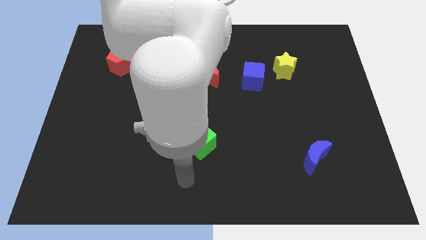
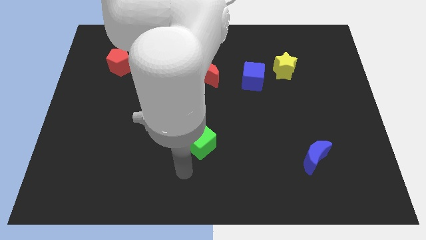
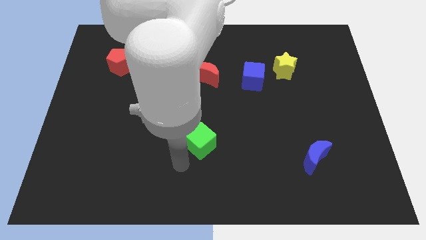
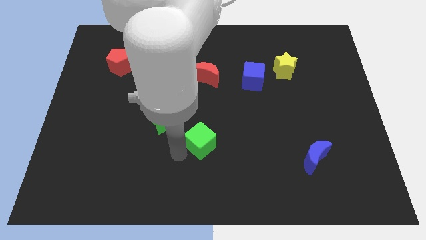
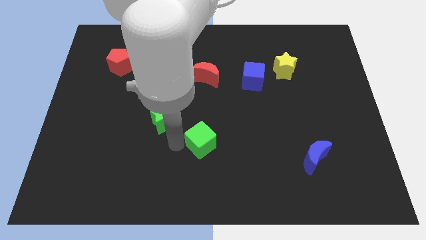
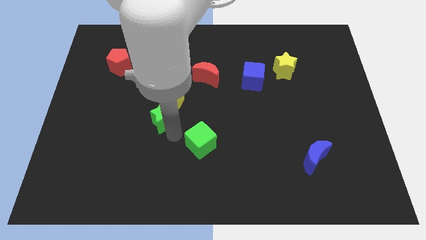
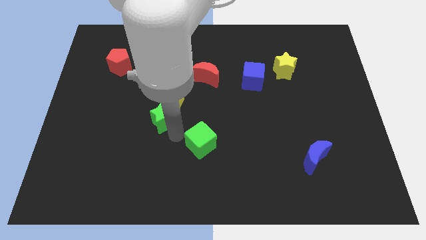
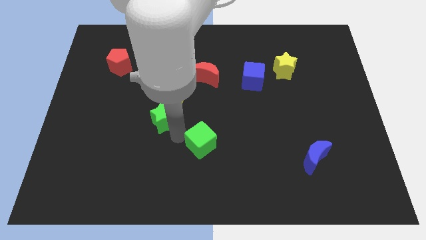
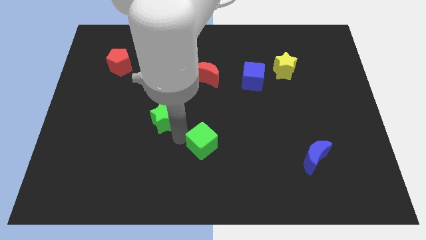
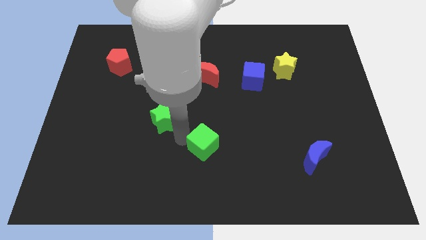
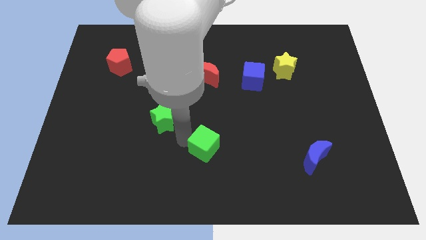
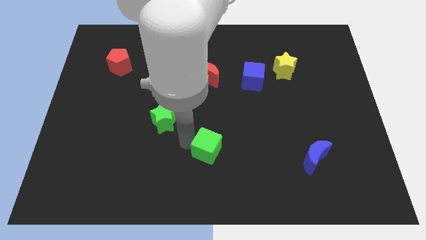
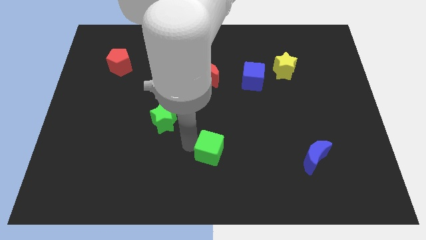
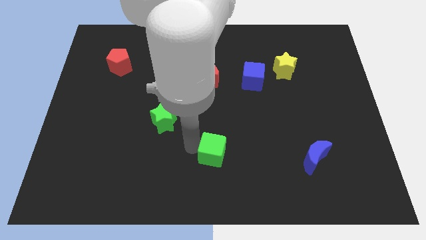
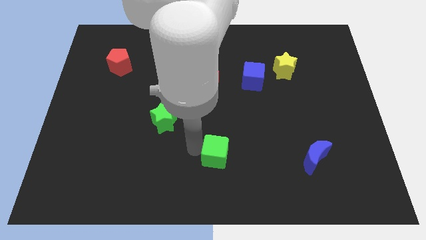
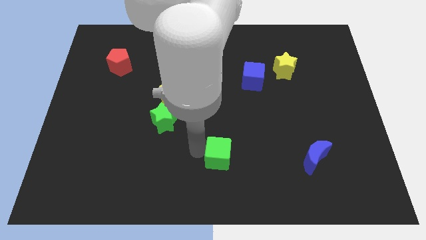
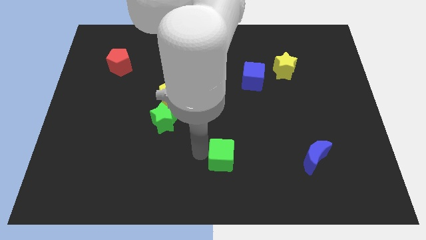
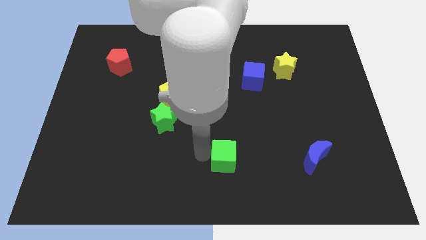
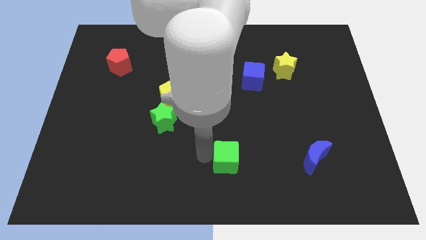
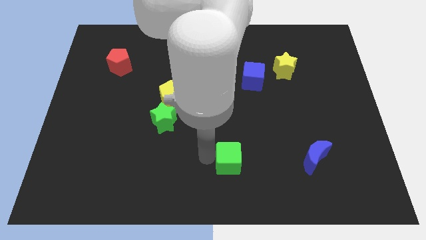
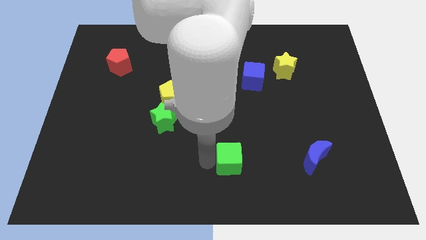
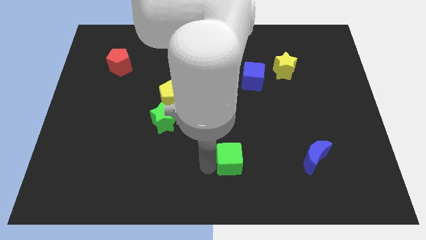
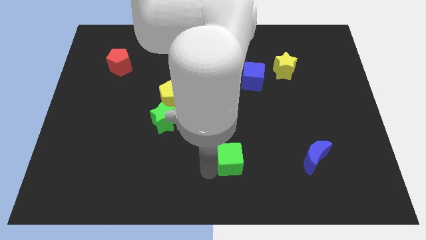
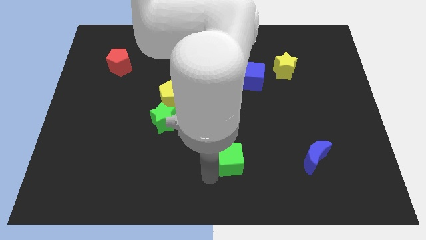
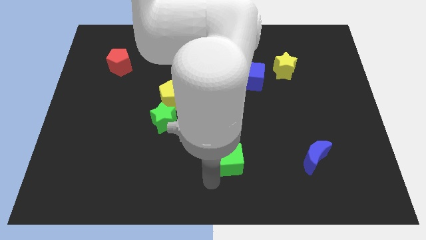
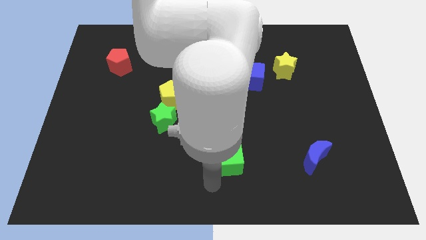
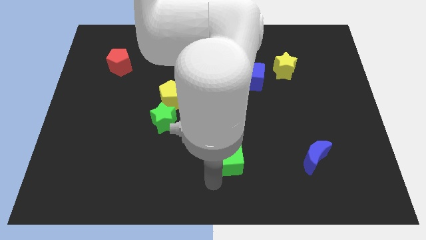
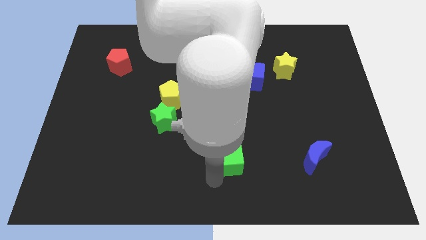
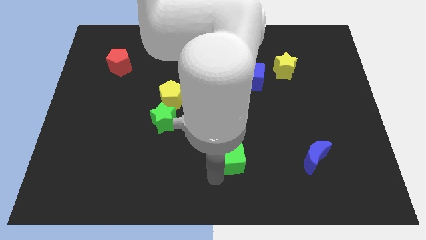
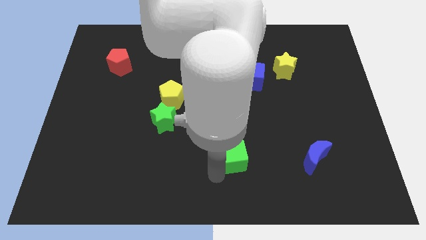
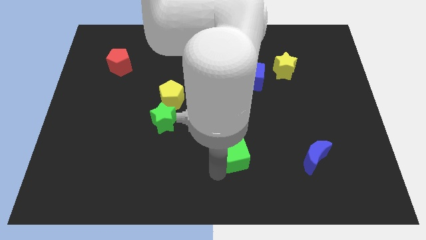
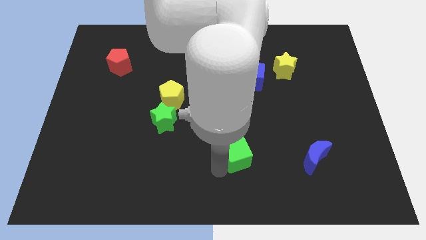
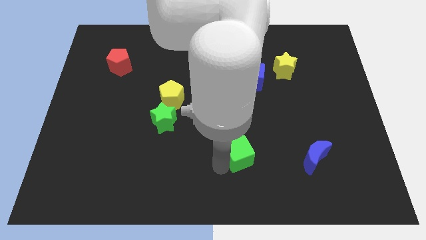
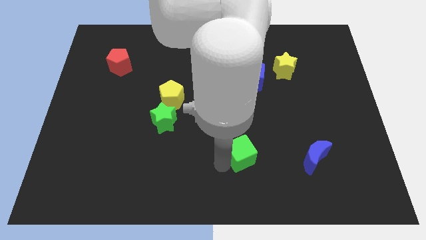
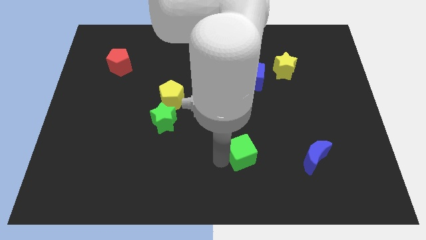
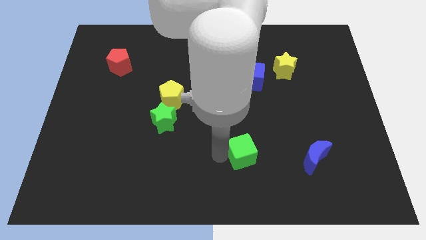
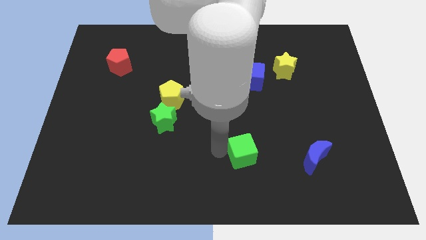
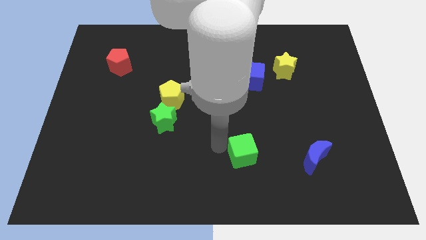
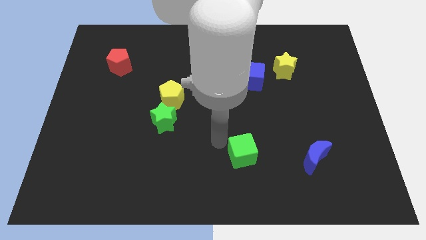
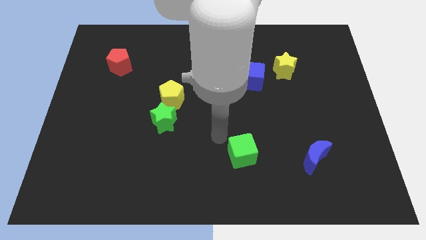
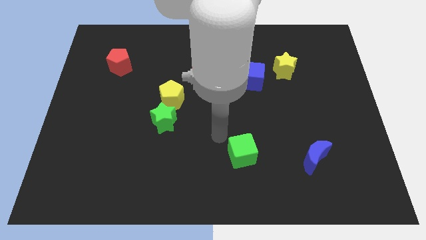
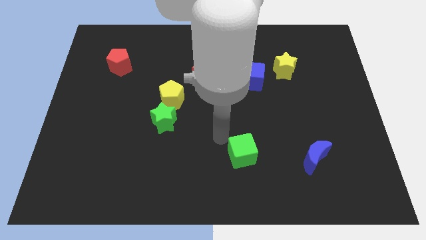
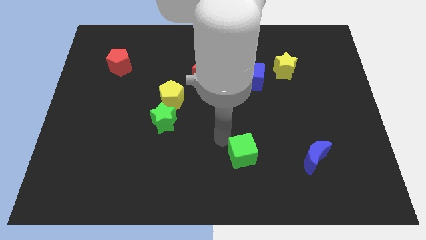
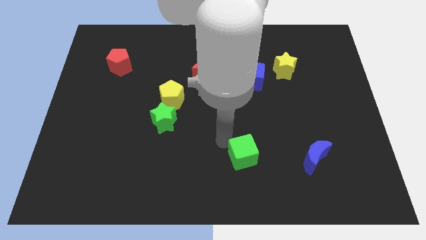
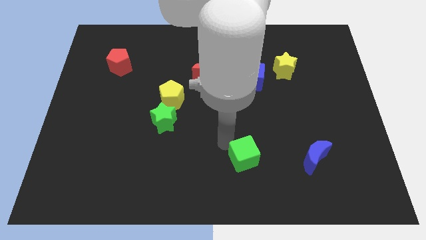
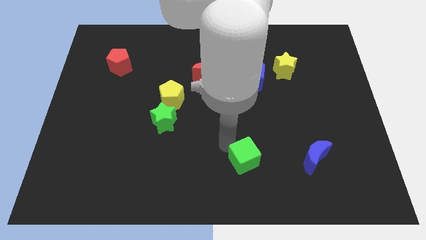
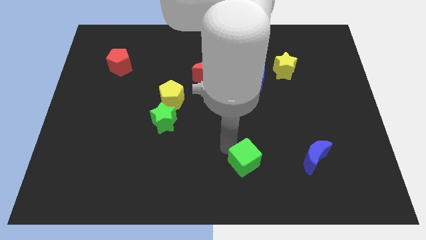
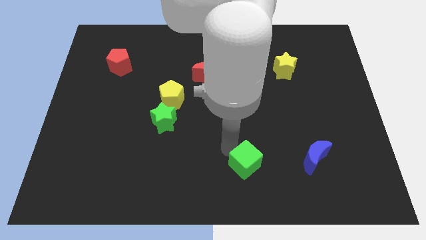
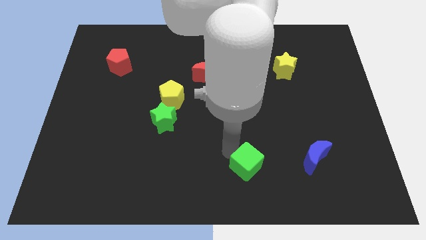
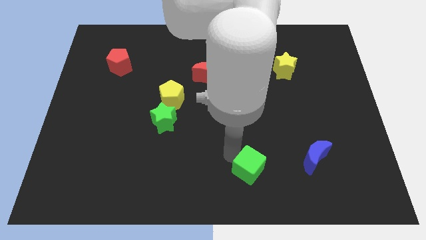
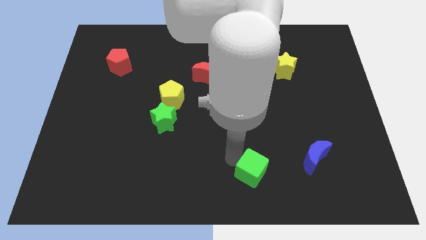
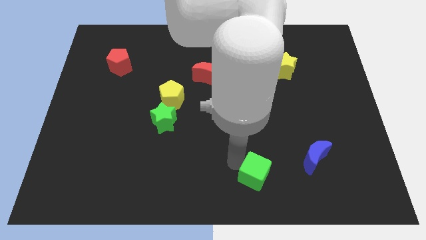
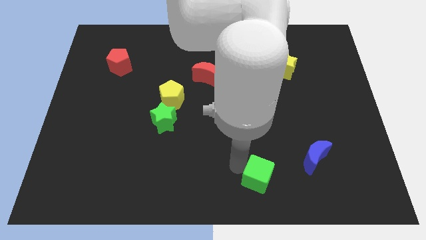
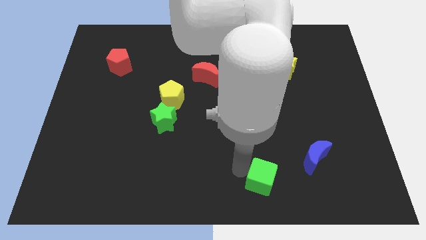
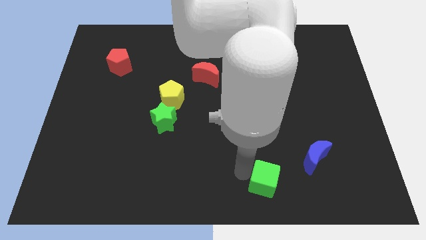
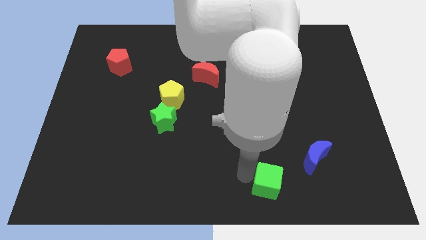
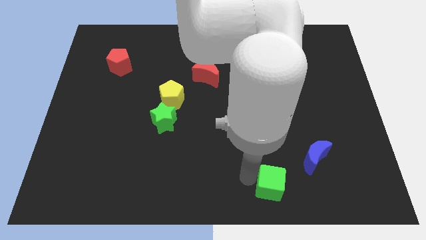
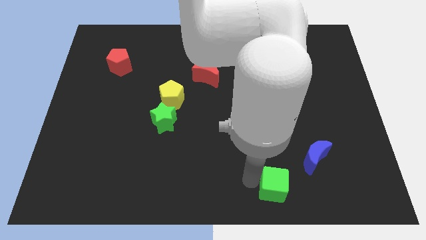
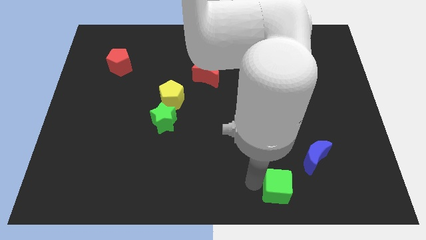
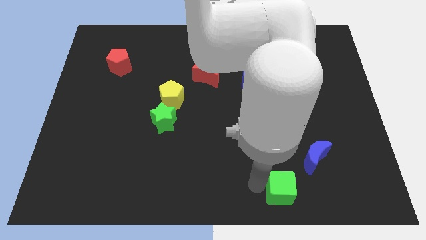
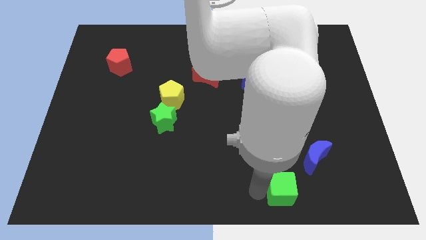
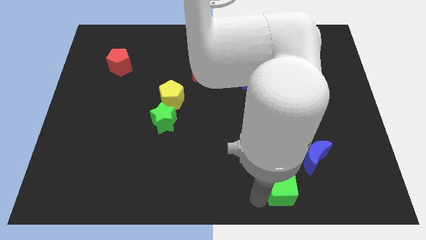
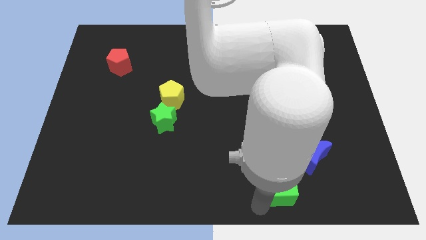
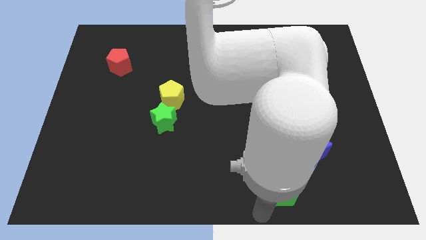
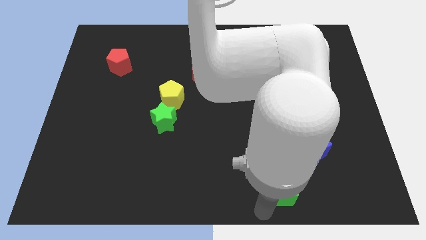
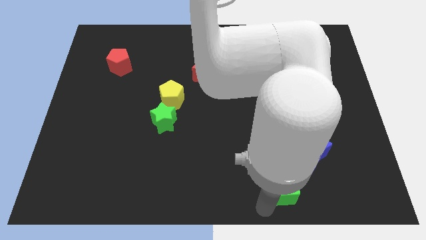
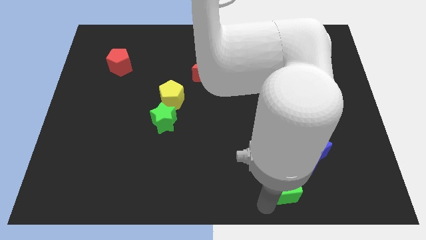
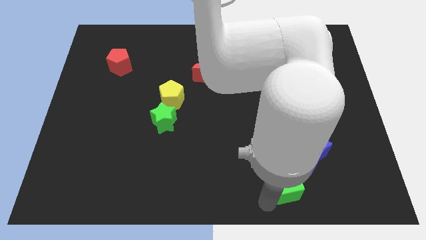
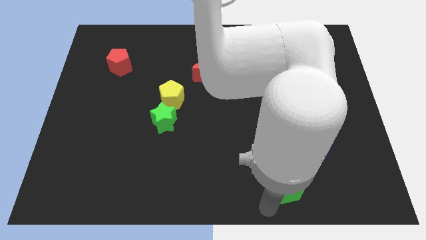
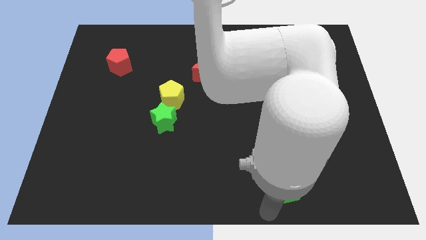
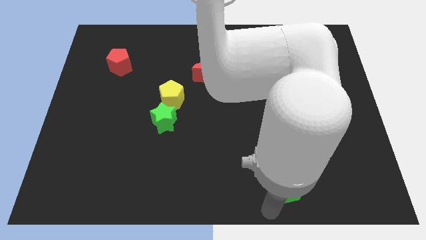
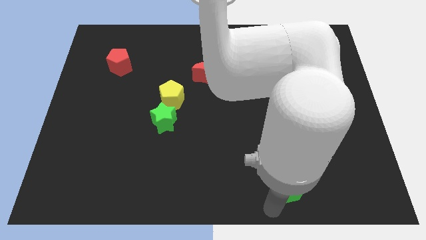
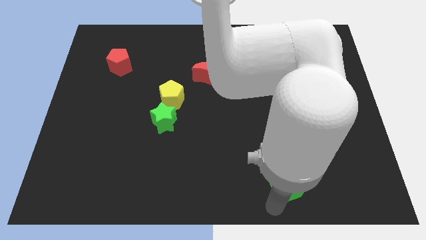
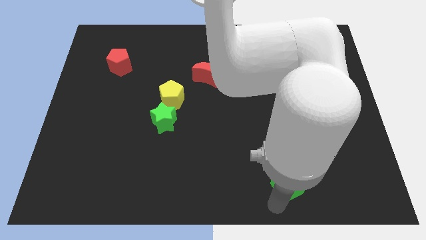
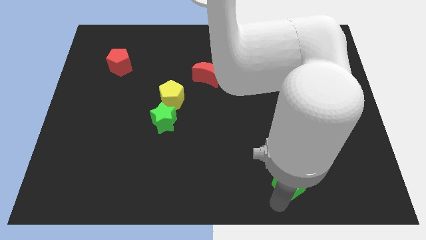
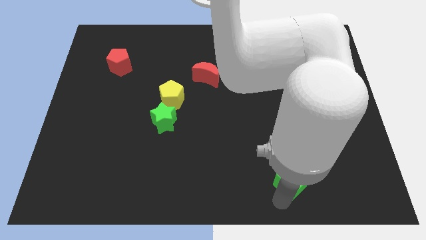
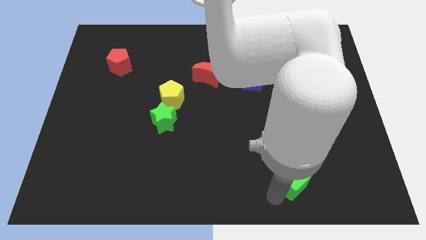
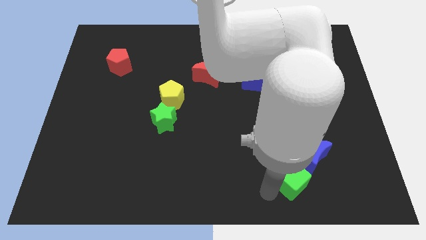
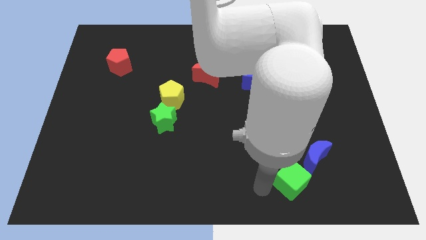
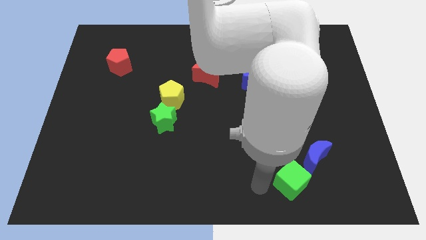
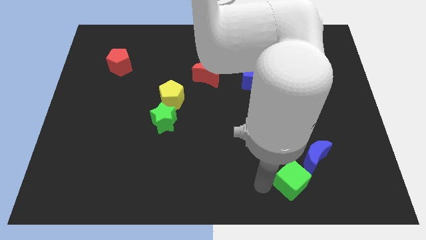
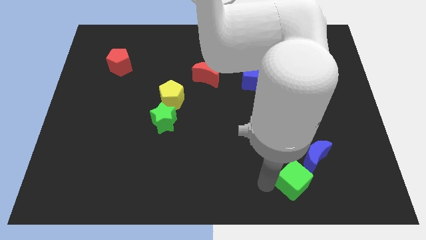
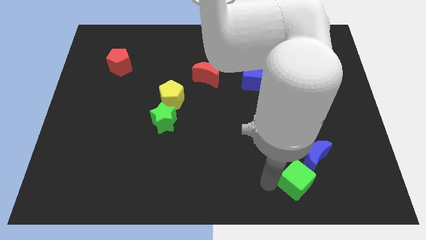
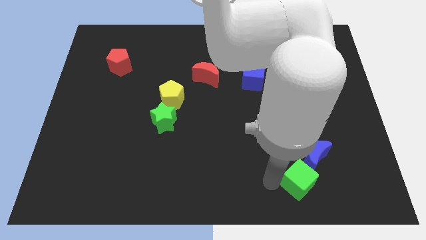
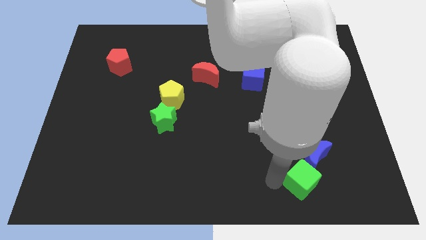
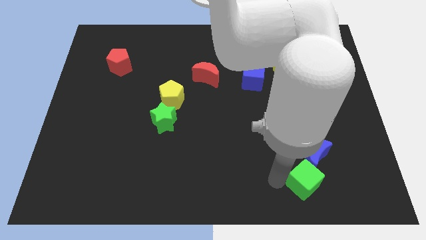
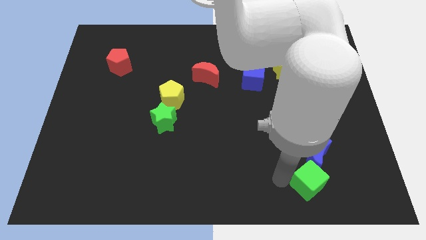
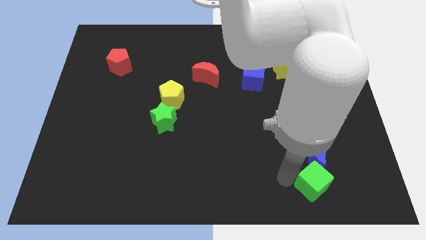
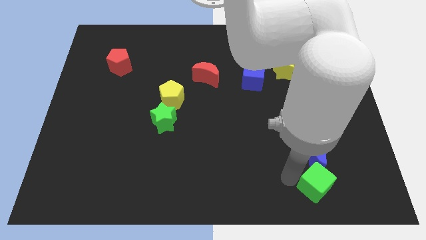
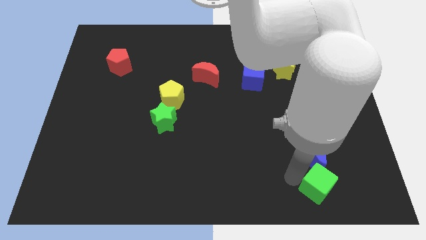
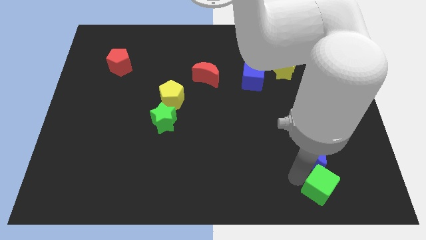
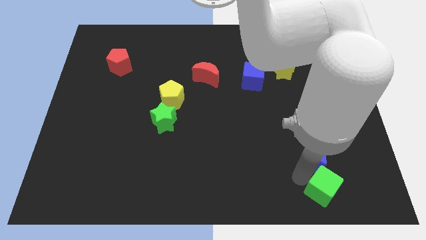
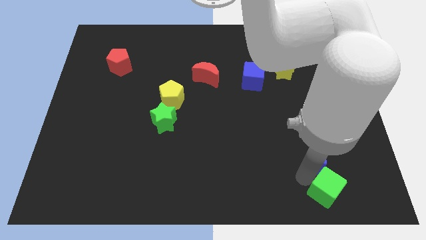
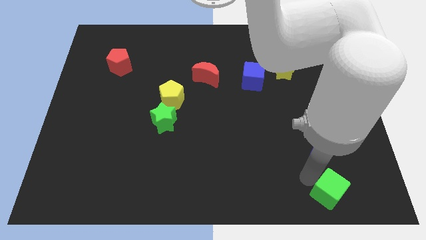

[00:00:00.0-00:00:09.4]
push the green cube diagonally down and to the right of the blue moon
